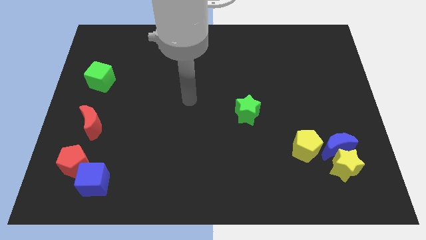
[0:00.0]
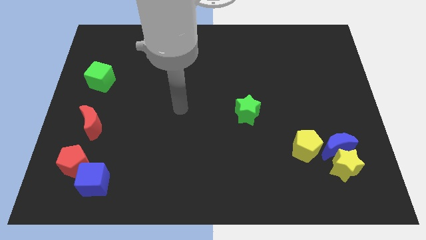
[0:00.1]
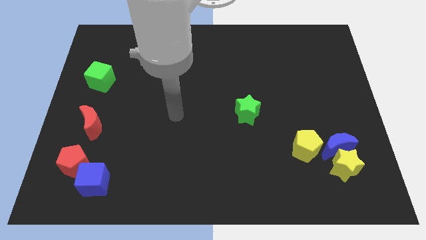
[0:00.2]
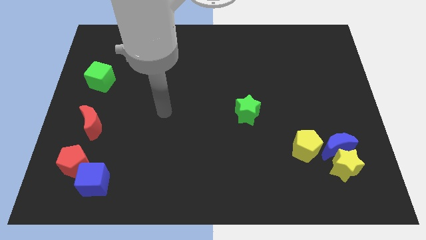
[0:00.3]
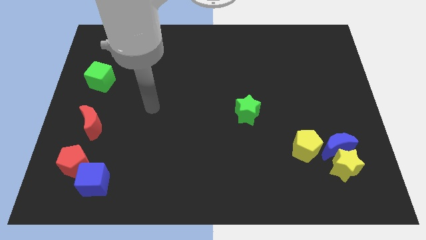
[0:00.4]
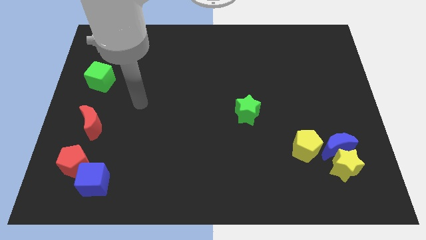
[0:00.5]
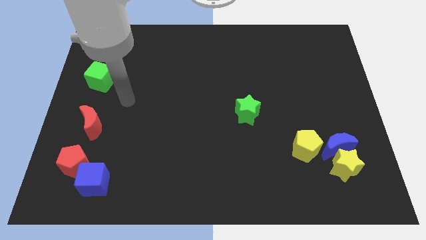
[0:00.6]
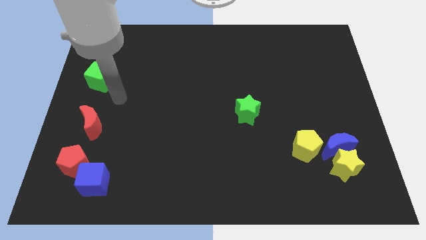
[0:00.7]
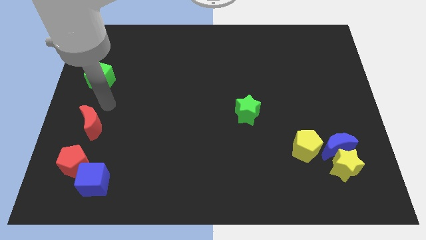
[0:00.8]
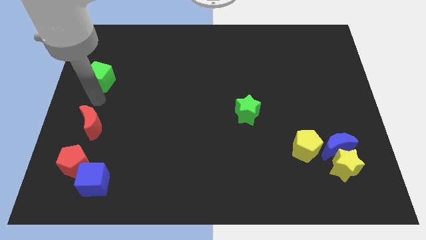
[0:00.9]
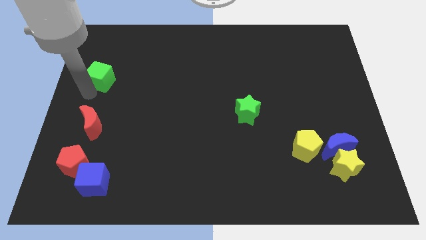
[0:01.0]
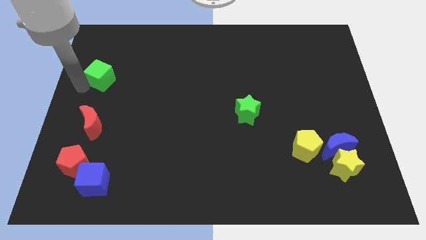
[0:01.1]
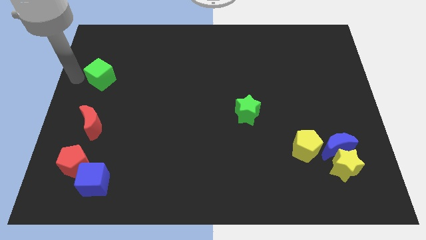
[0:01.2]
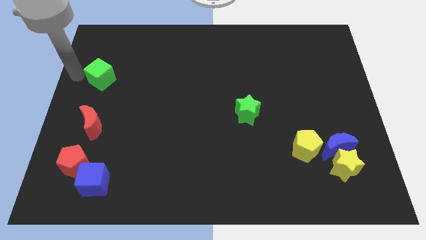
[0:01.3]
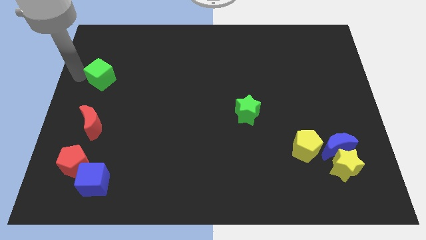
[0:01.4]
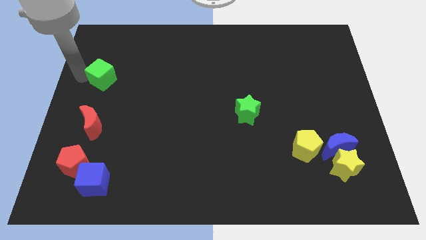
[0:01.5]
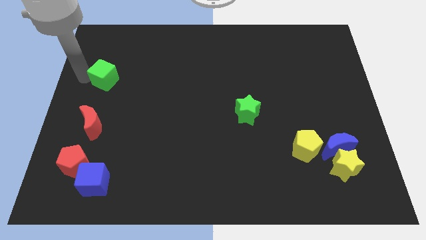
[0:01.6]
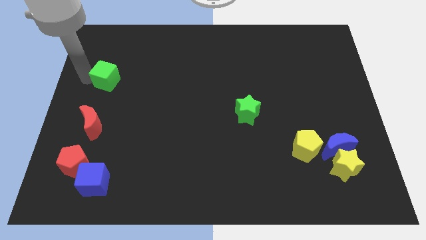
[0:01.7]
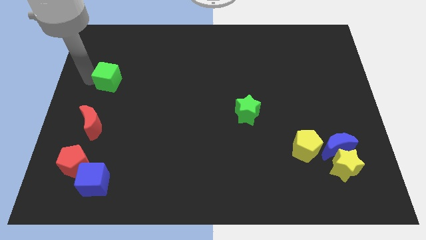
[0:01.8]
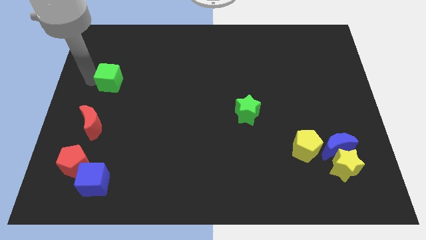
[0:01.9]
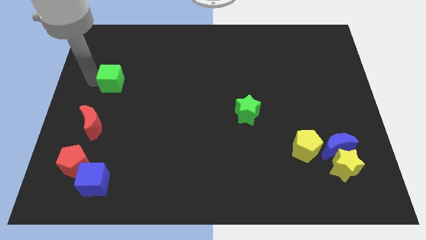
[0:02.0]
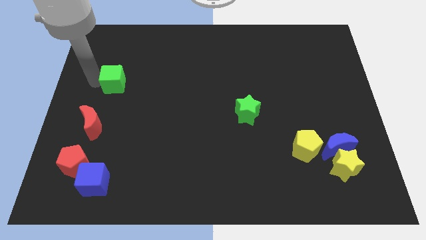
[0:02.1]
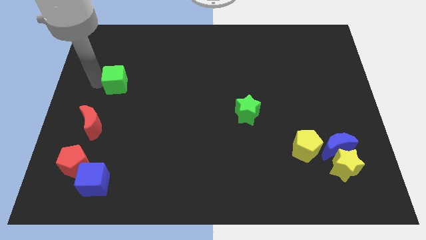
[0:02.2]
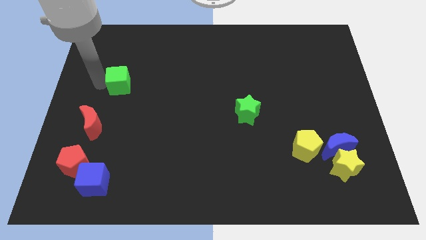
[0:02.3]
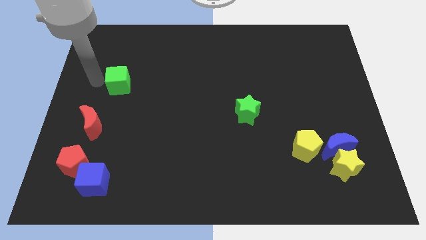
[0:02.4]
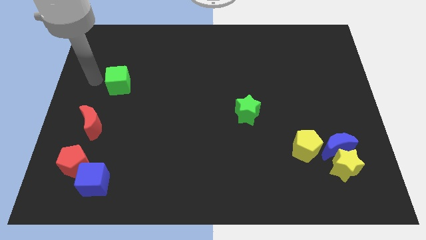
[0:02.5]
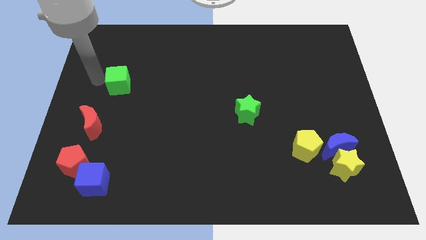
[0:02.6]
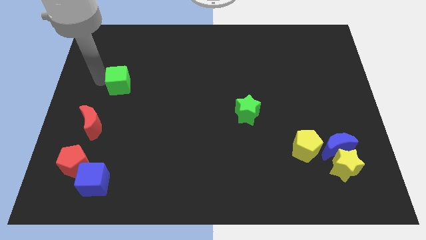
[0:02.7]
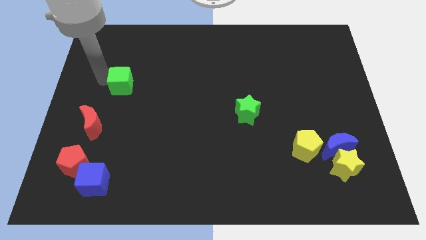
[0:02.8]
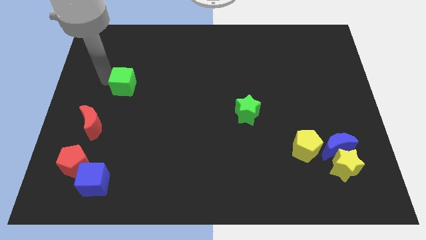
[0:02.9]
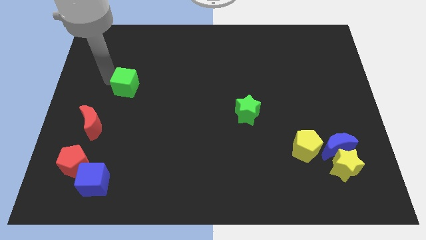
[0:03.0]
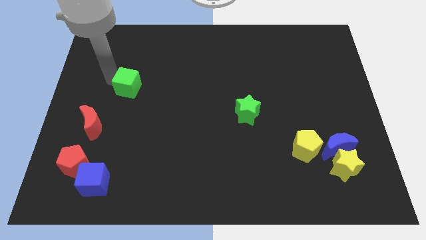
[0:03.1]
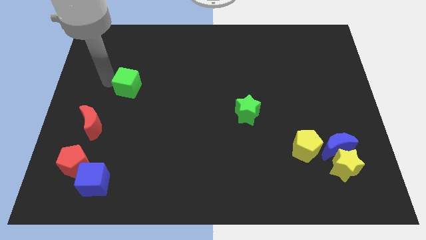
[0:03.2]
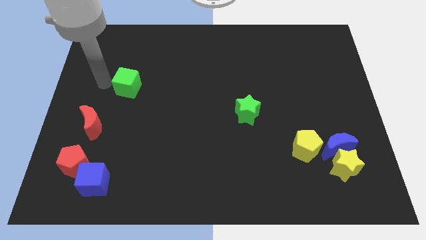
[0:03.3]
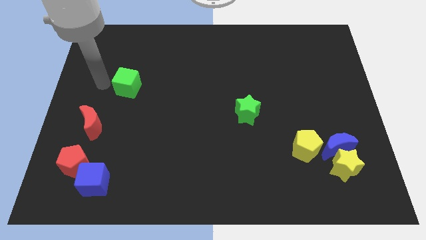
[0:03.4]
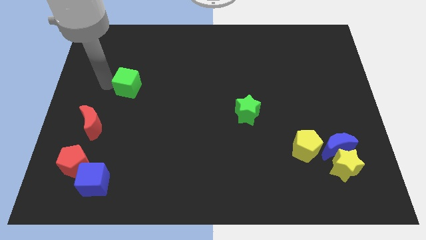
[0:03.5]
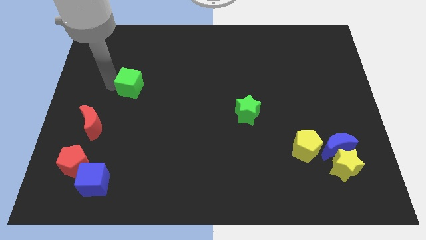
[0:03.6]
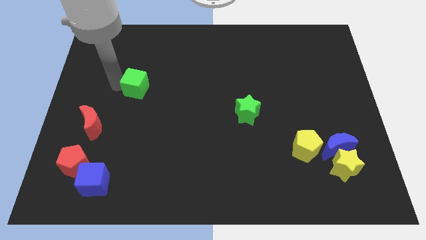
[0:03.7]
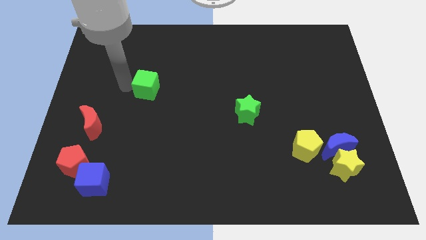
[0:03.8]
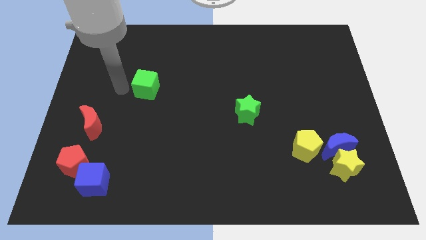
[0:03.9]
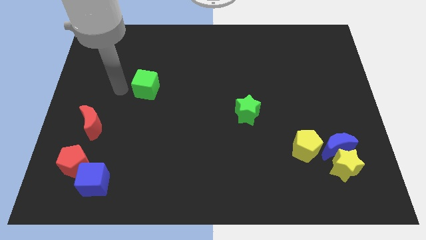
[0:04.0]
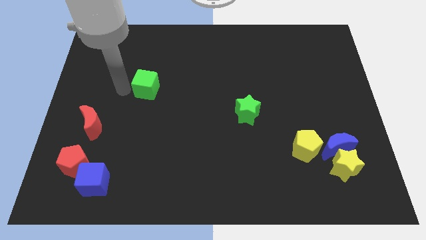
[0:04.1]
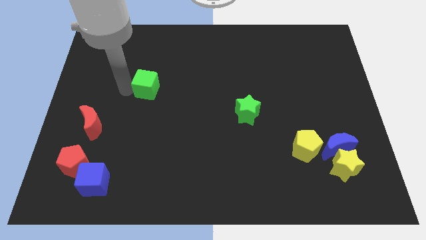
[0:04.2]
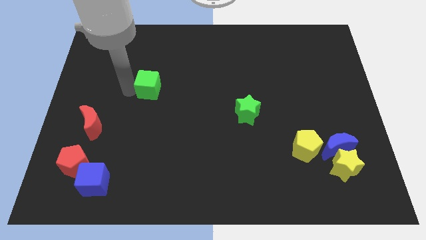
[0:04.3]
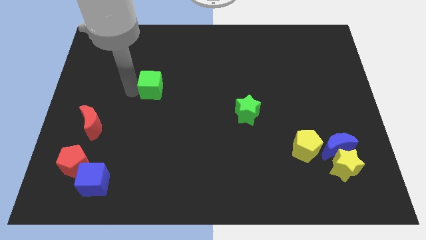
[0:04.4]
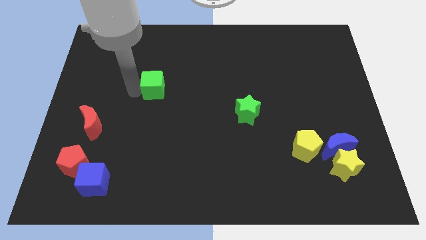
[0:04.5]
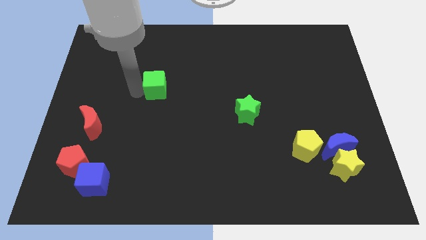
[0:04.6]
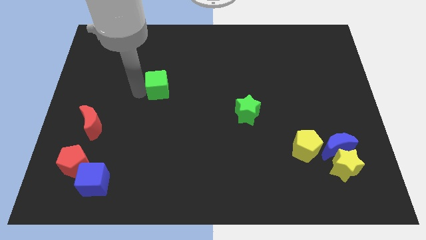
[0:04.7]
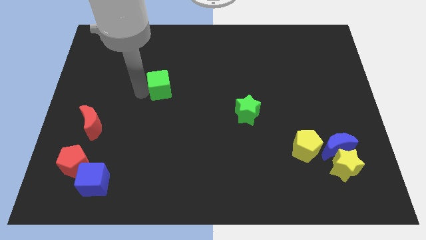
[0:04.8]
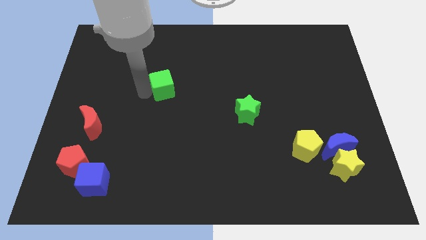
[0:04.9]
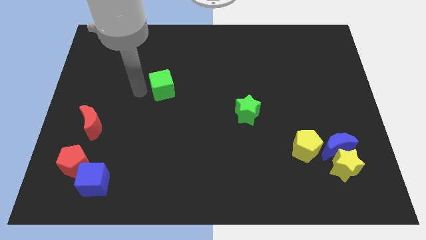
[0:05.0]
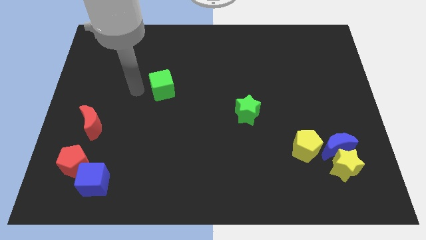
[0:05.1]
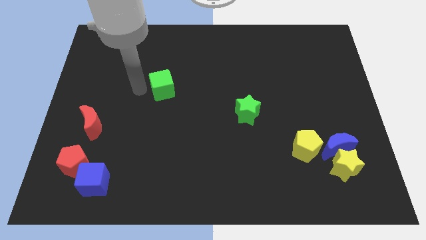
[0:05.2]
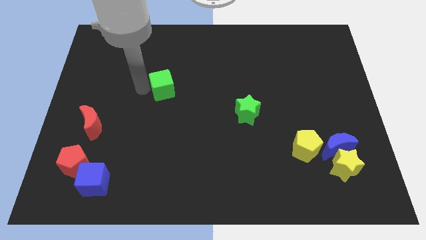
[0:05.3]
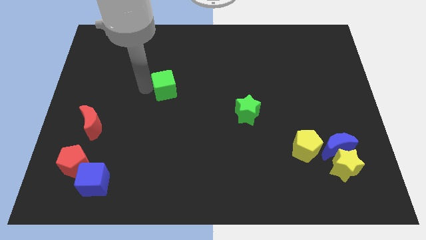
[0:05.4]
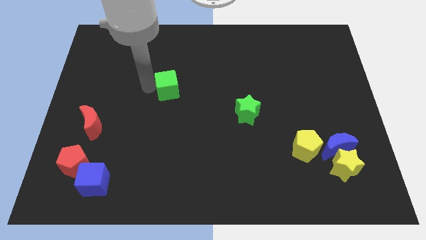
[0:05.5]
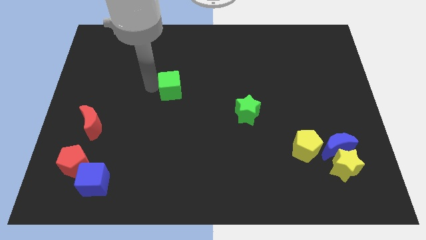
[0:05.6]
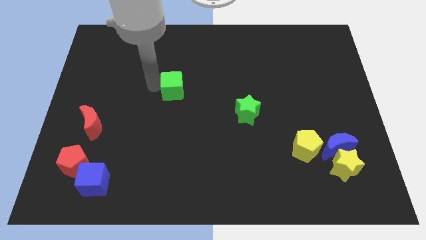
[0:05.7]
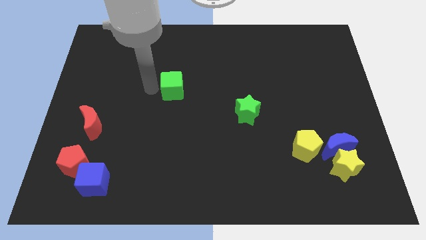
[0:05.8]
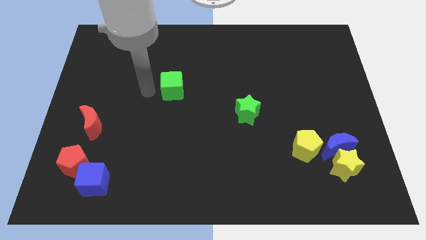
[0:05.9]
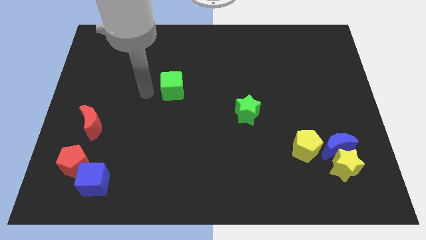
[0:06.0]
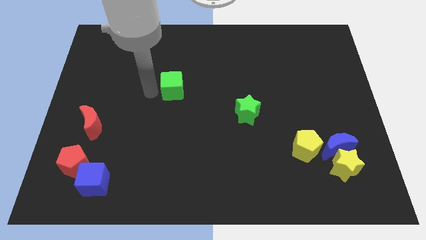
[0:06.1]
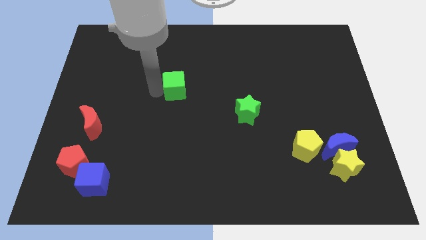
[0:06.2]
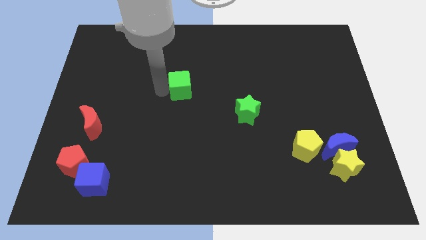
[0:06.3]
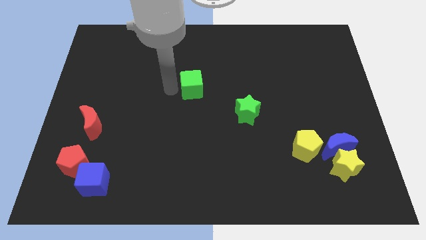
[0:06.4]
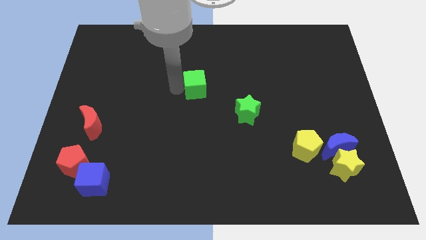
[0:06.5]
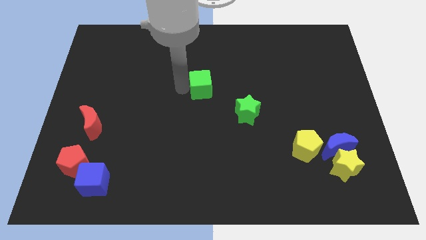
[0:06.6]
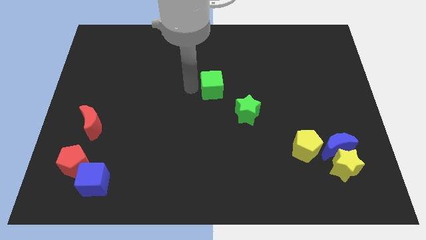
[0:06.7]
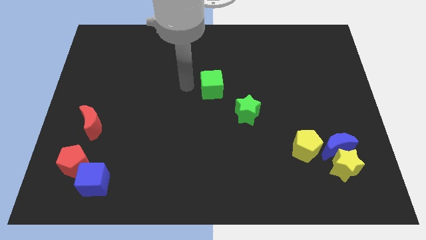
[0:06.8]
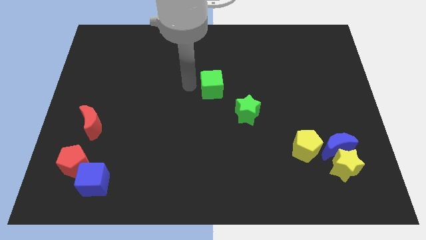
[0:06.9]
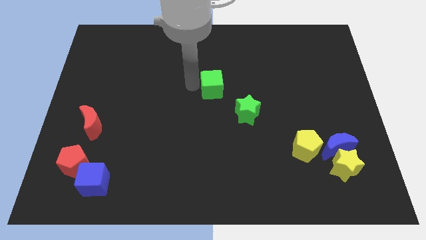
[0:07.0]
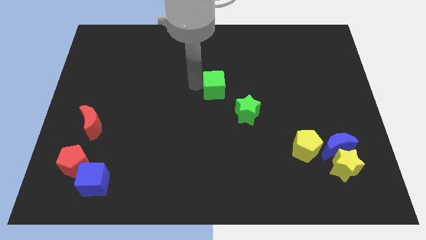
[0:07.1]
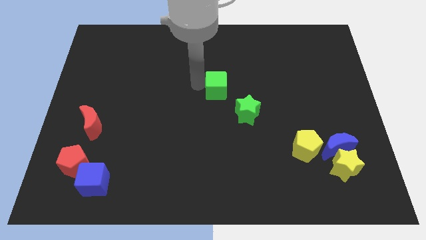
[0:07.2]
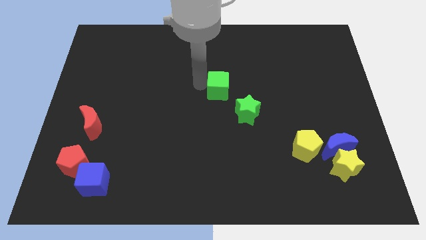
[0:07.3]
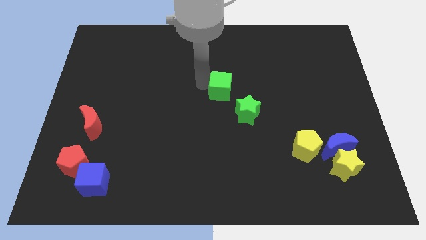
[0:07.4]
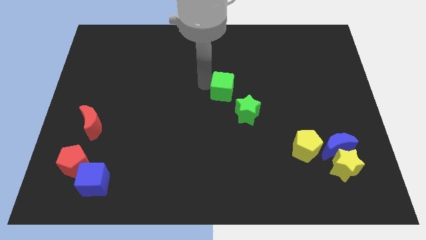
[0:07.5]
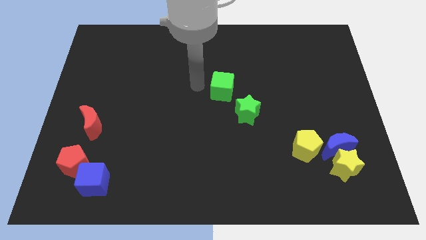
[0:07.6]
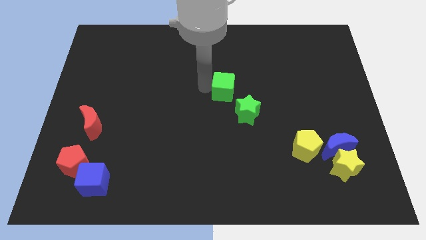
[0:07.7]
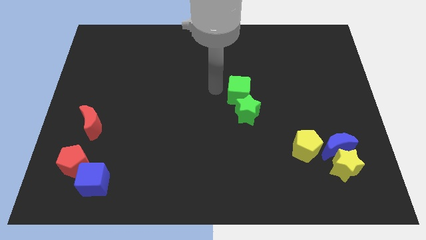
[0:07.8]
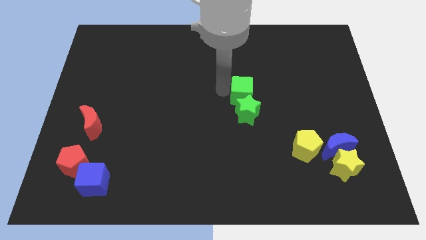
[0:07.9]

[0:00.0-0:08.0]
push the green cube to the top right of the green star
